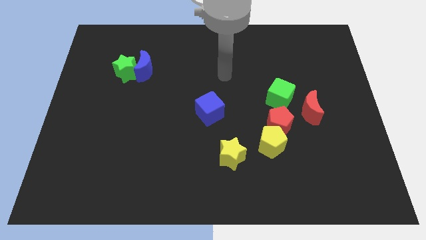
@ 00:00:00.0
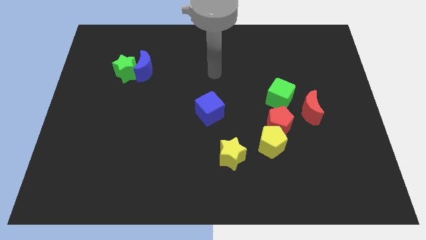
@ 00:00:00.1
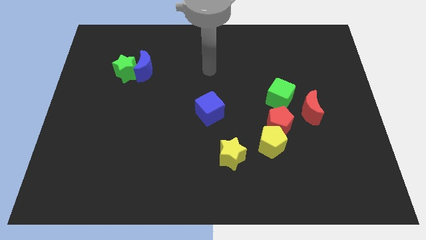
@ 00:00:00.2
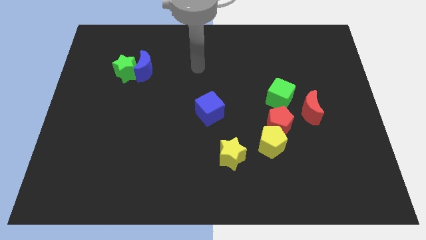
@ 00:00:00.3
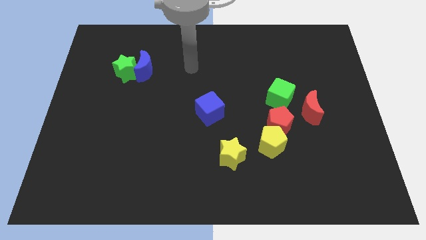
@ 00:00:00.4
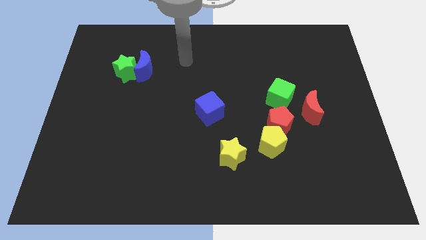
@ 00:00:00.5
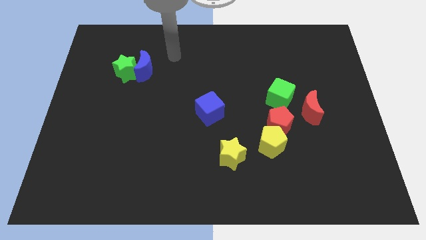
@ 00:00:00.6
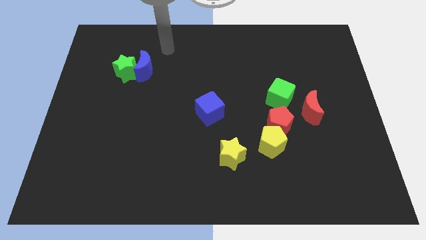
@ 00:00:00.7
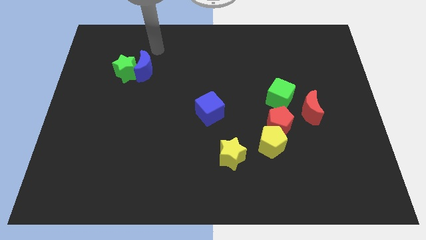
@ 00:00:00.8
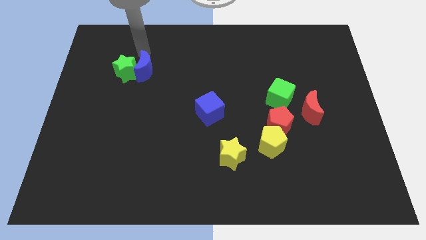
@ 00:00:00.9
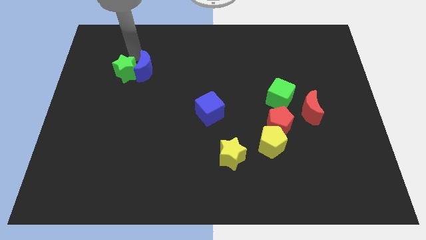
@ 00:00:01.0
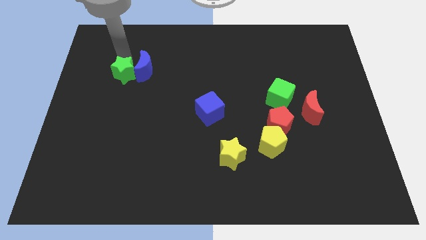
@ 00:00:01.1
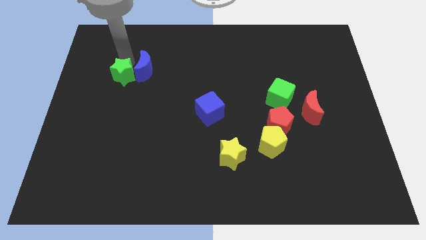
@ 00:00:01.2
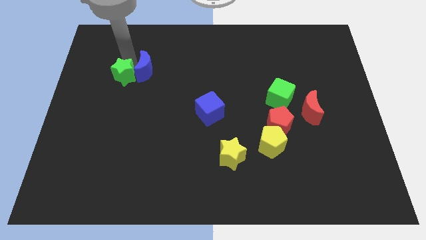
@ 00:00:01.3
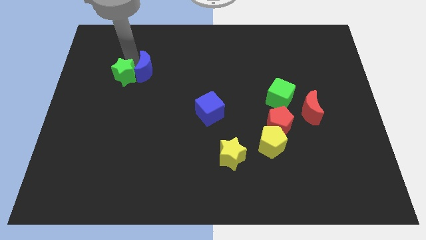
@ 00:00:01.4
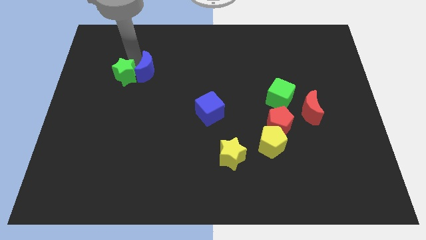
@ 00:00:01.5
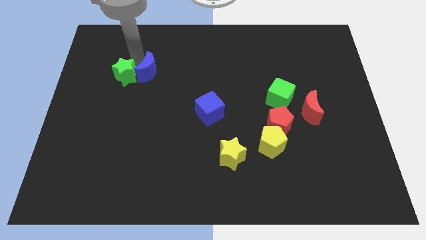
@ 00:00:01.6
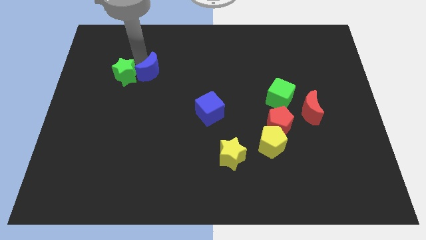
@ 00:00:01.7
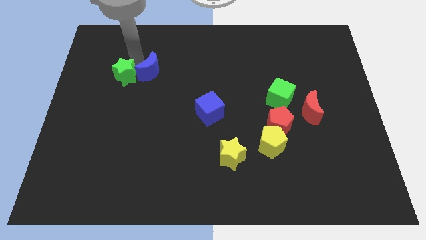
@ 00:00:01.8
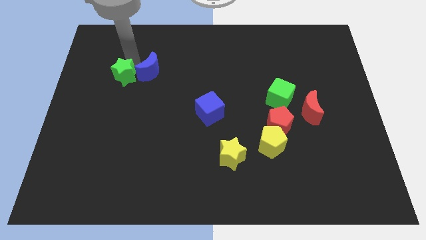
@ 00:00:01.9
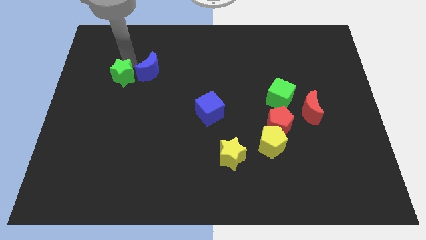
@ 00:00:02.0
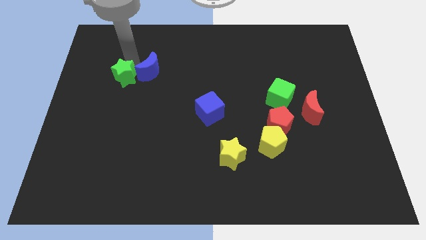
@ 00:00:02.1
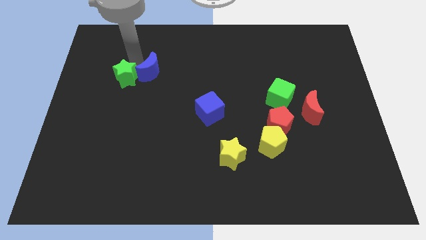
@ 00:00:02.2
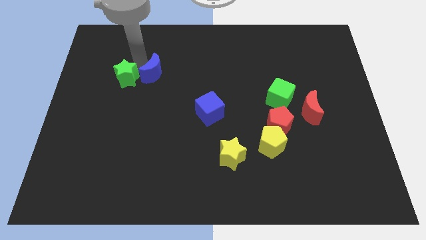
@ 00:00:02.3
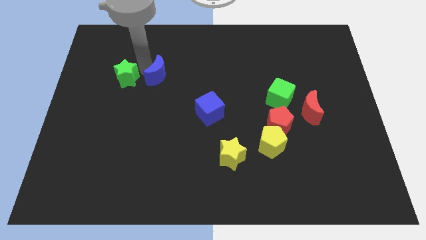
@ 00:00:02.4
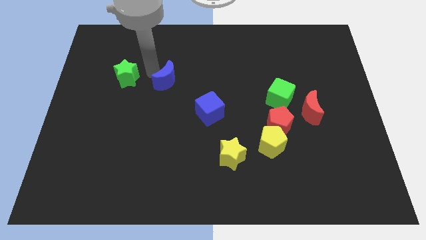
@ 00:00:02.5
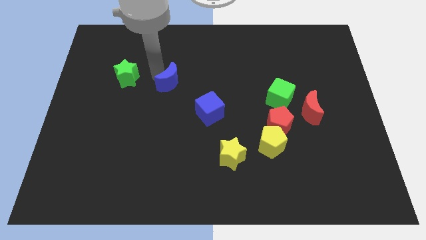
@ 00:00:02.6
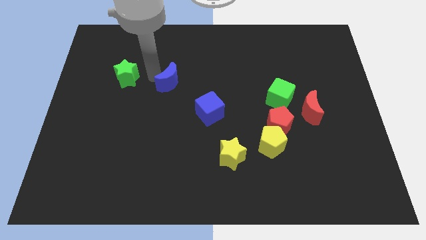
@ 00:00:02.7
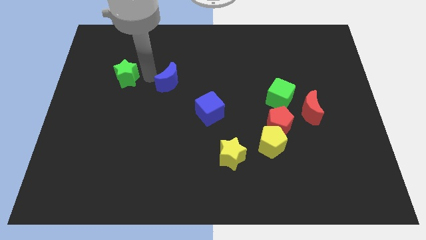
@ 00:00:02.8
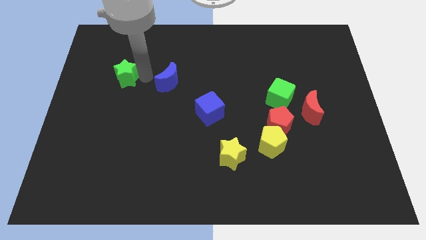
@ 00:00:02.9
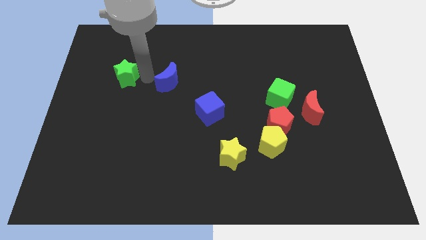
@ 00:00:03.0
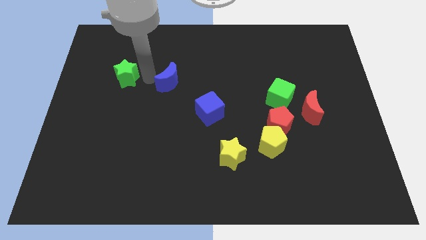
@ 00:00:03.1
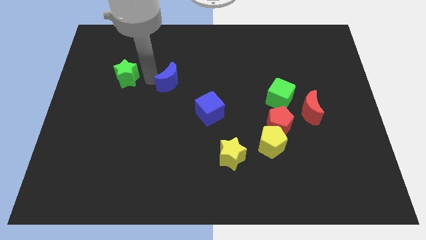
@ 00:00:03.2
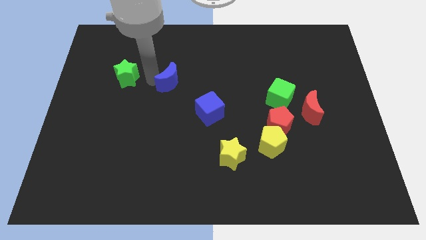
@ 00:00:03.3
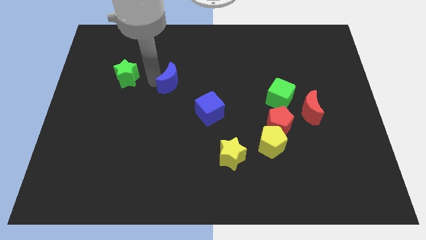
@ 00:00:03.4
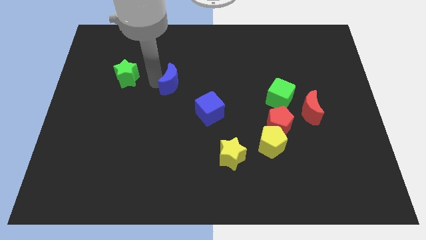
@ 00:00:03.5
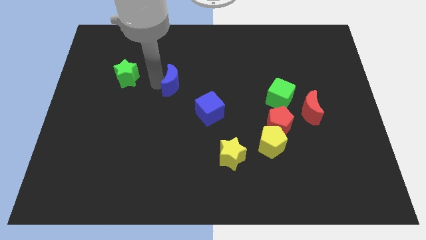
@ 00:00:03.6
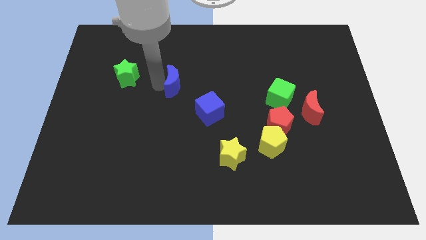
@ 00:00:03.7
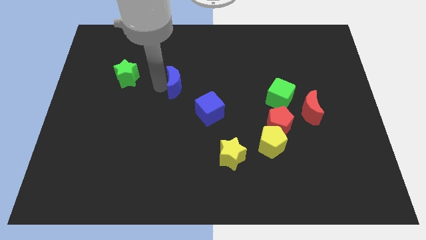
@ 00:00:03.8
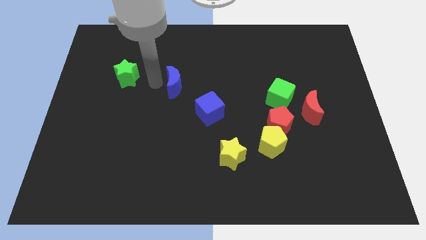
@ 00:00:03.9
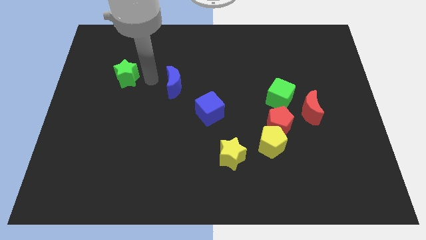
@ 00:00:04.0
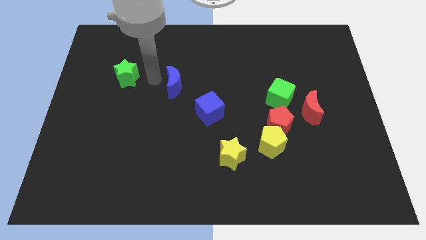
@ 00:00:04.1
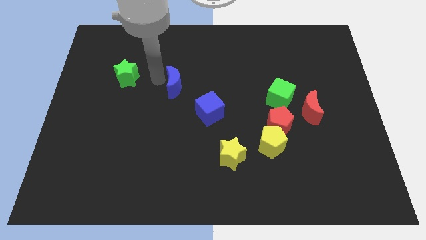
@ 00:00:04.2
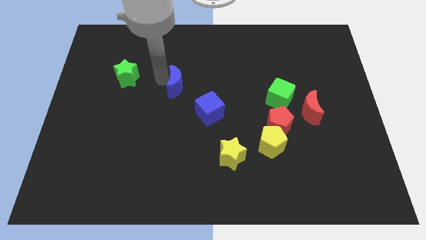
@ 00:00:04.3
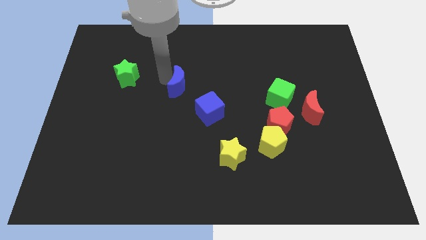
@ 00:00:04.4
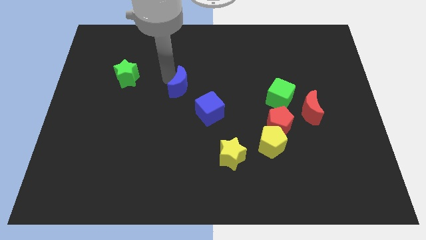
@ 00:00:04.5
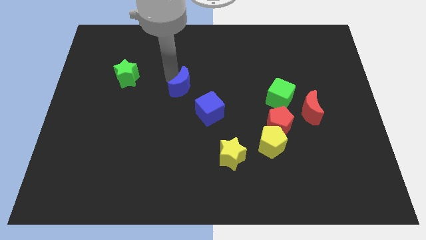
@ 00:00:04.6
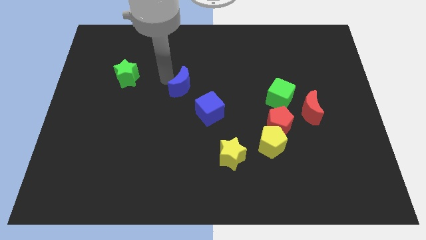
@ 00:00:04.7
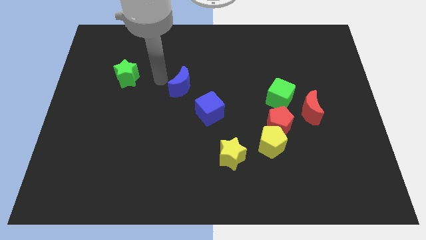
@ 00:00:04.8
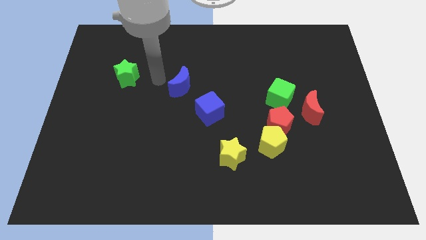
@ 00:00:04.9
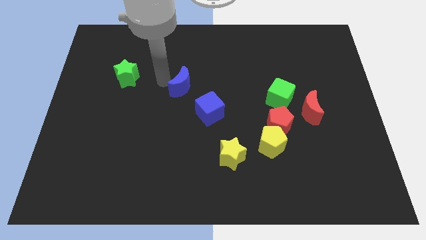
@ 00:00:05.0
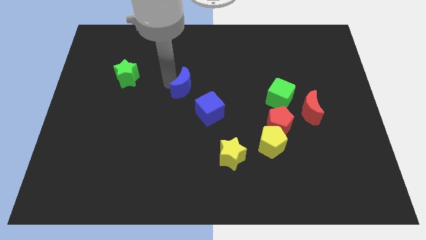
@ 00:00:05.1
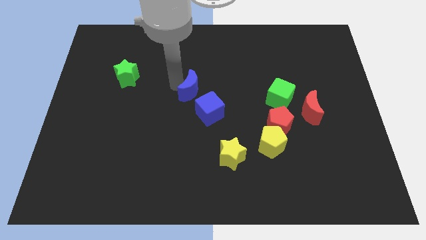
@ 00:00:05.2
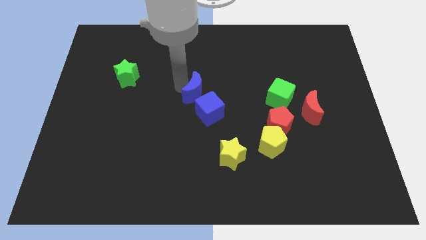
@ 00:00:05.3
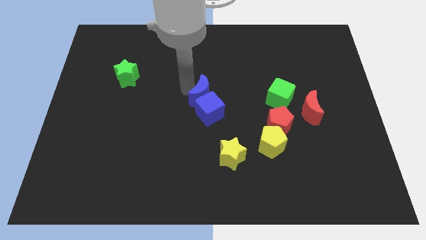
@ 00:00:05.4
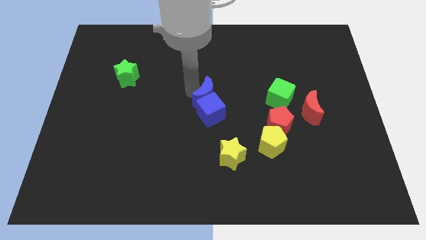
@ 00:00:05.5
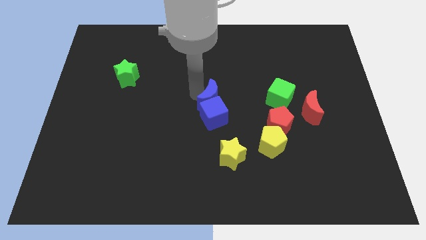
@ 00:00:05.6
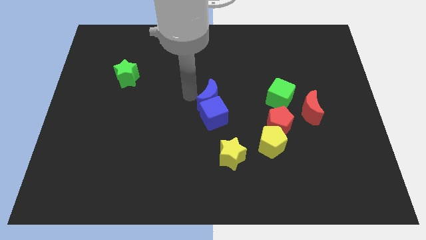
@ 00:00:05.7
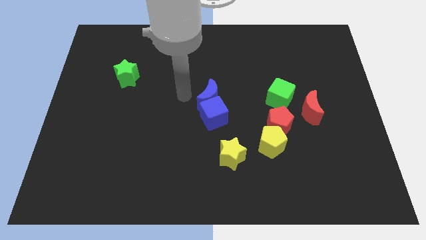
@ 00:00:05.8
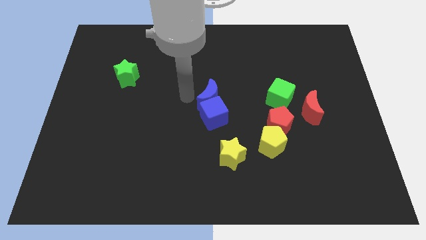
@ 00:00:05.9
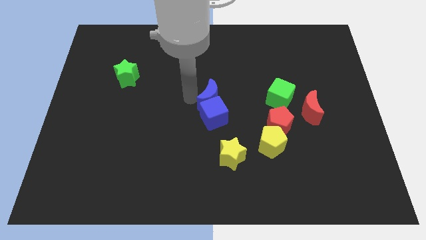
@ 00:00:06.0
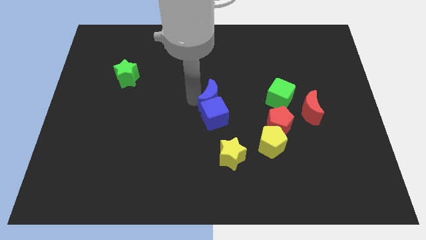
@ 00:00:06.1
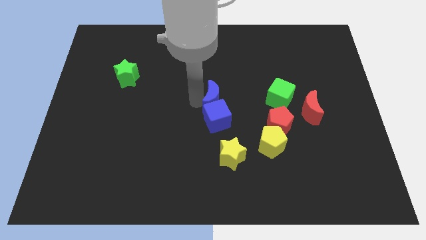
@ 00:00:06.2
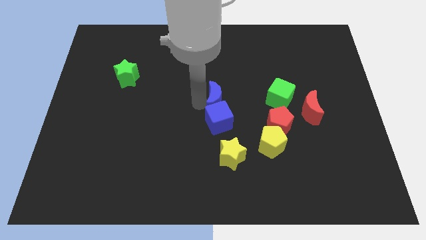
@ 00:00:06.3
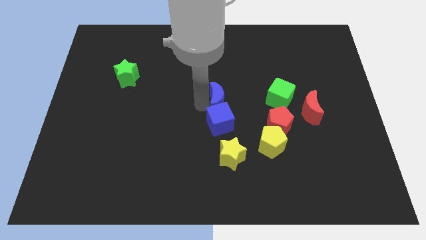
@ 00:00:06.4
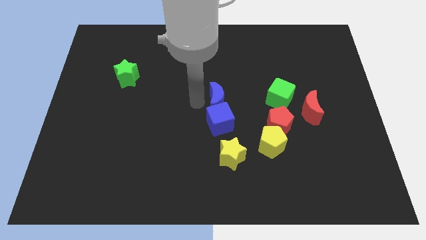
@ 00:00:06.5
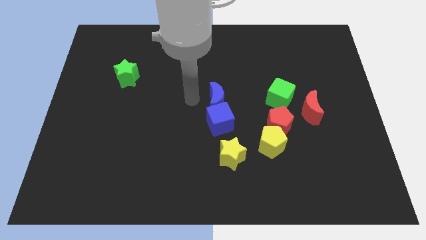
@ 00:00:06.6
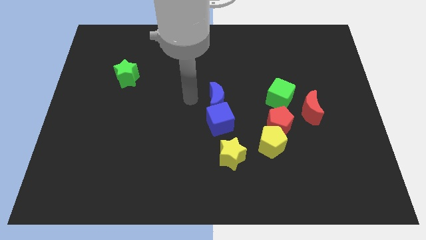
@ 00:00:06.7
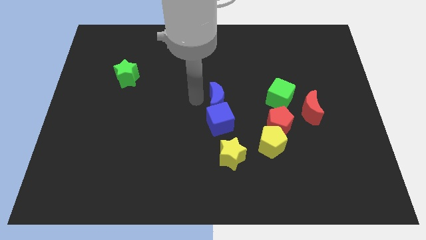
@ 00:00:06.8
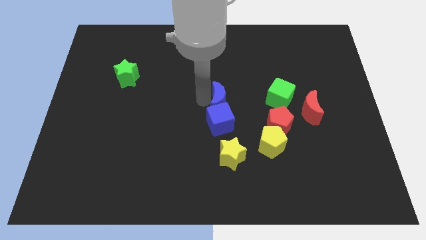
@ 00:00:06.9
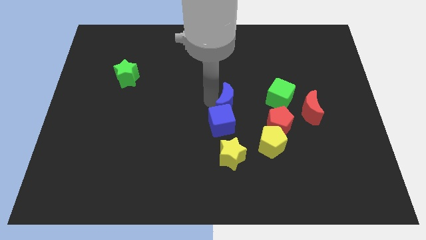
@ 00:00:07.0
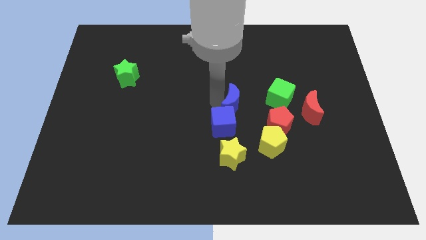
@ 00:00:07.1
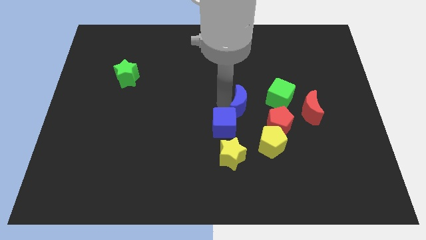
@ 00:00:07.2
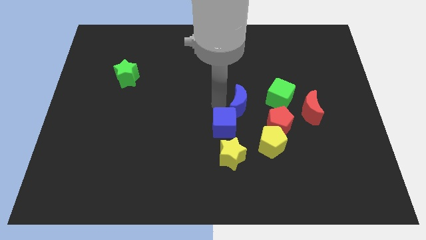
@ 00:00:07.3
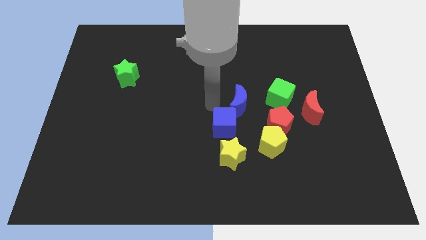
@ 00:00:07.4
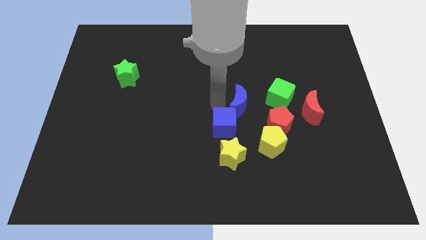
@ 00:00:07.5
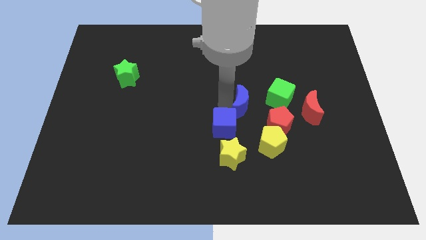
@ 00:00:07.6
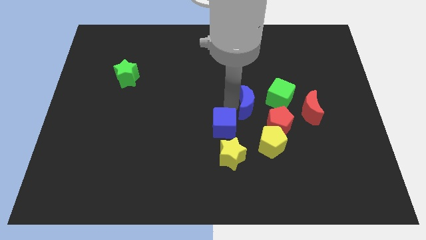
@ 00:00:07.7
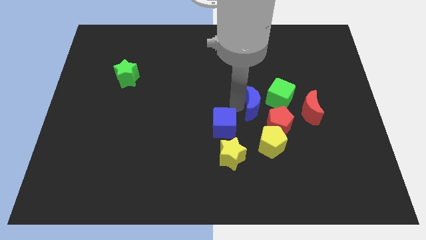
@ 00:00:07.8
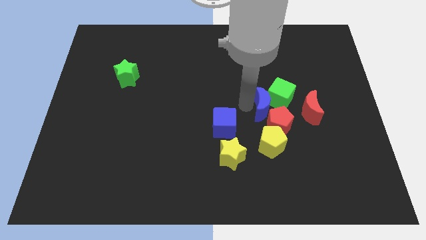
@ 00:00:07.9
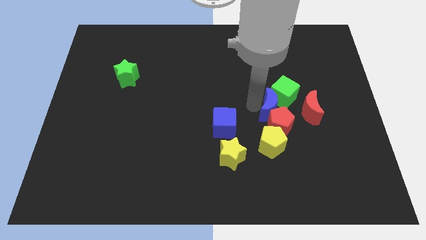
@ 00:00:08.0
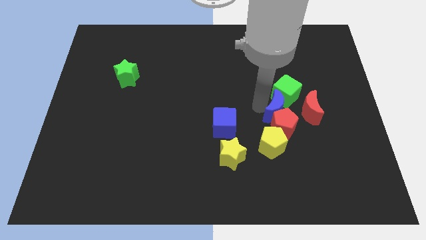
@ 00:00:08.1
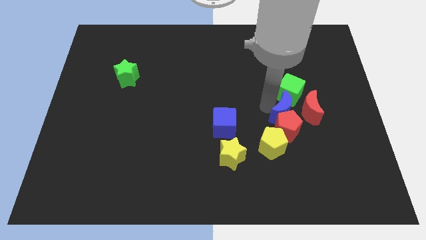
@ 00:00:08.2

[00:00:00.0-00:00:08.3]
push the blue moon to the top right of the yellow pentagon
